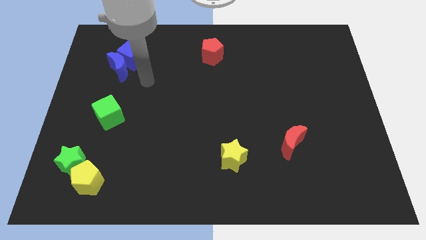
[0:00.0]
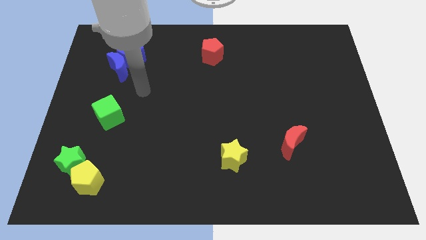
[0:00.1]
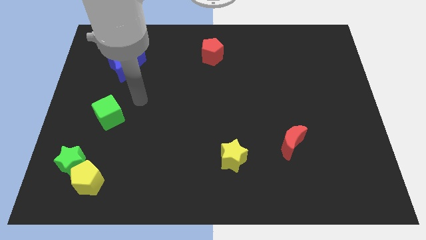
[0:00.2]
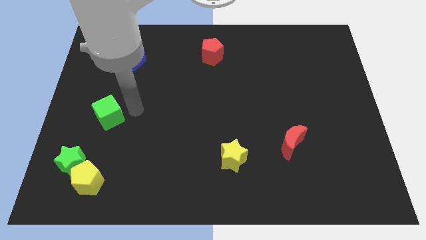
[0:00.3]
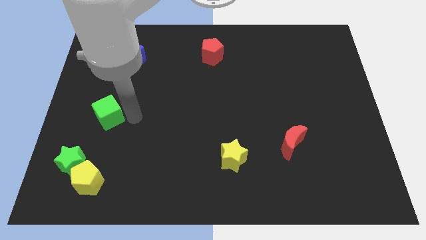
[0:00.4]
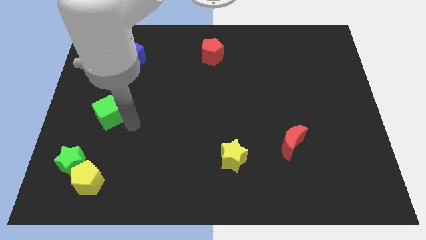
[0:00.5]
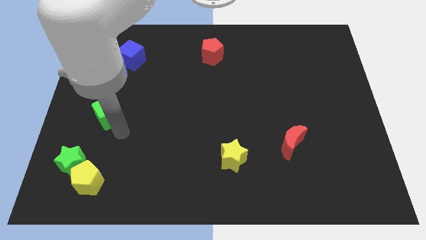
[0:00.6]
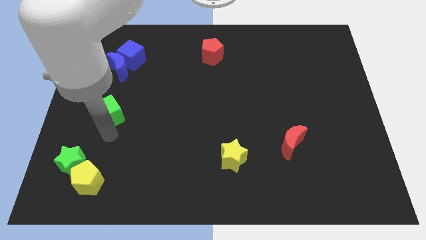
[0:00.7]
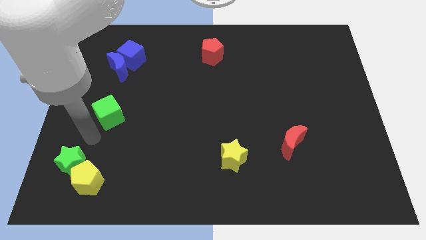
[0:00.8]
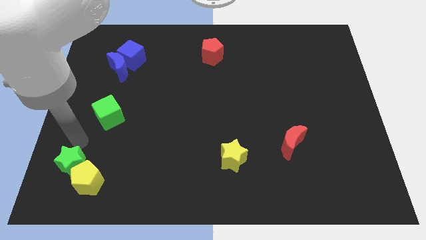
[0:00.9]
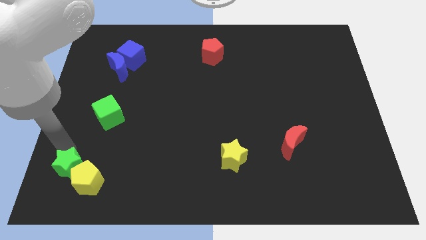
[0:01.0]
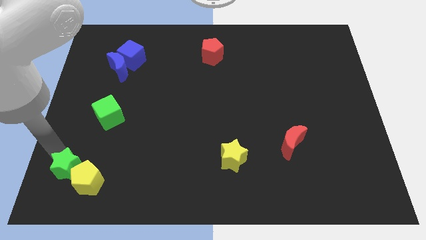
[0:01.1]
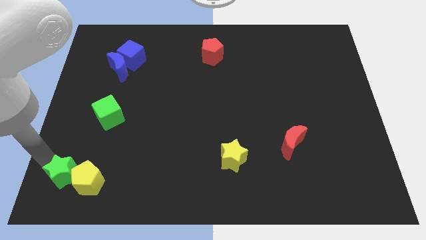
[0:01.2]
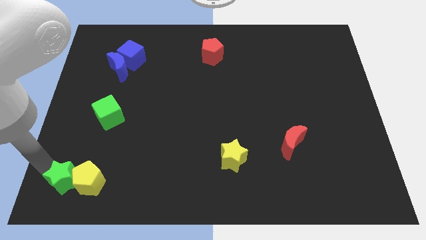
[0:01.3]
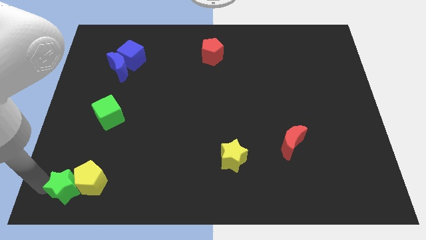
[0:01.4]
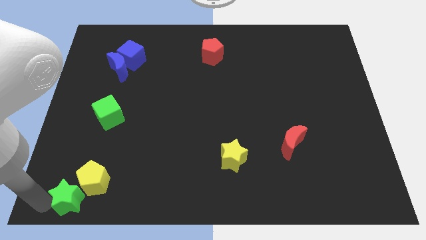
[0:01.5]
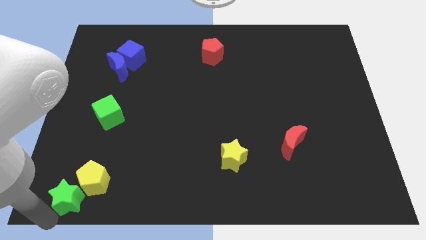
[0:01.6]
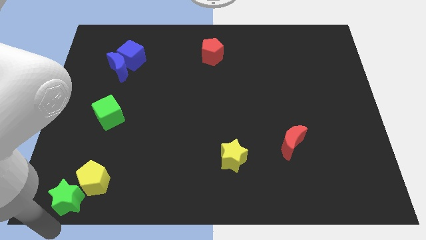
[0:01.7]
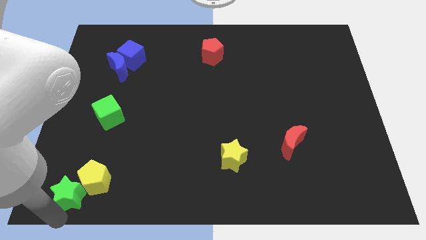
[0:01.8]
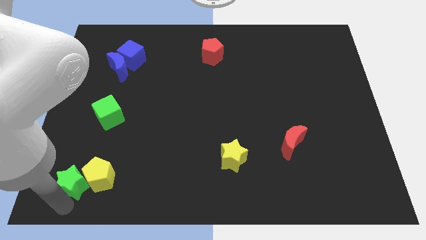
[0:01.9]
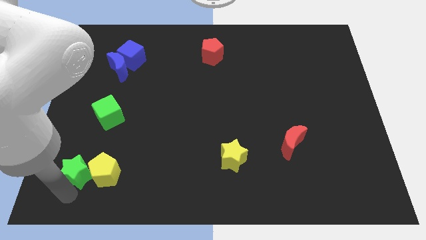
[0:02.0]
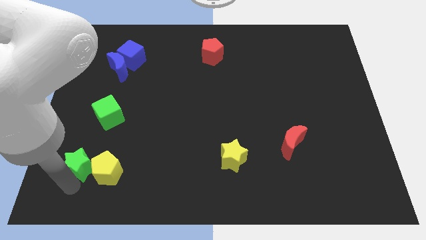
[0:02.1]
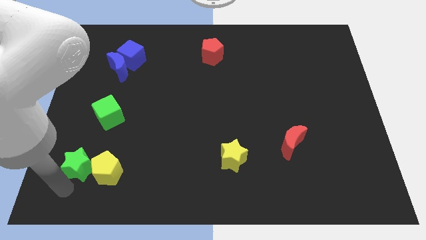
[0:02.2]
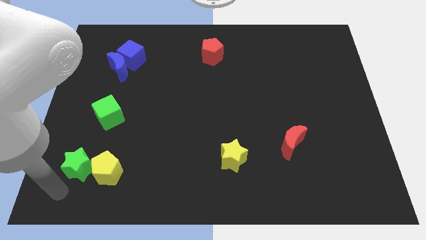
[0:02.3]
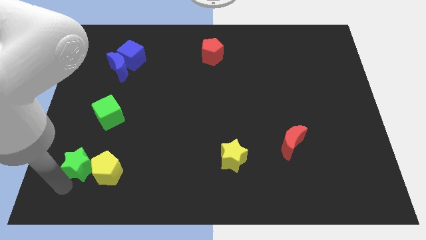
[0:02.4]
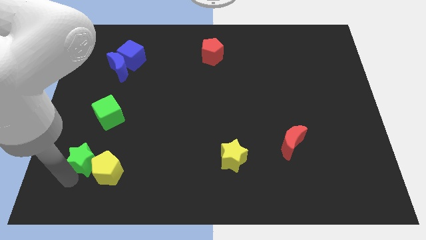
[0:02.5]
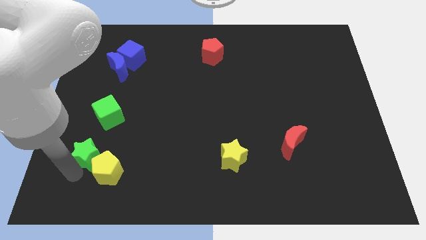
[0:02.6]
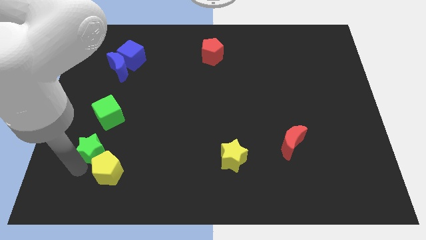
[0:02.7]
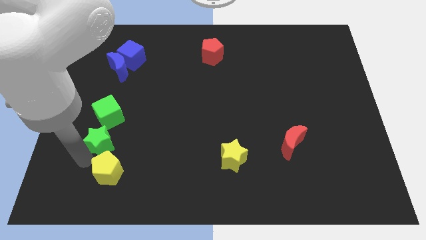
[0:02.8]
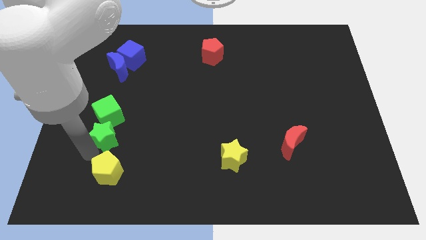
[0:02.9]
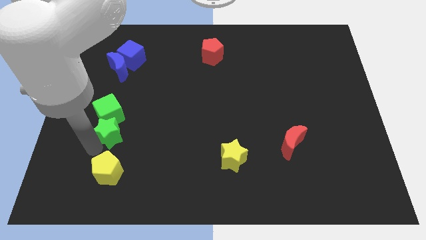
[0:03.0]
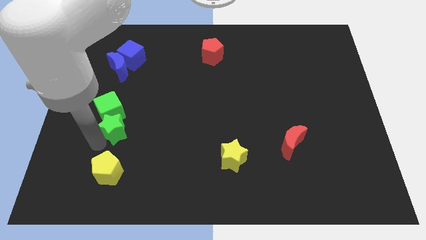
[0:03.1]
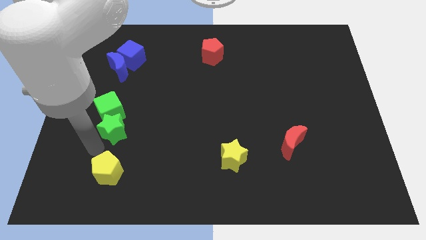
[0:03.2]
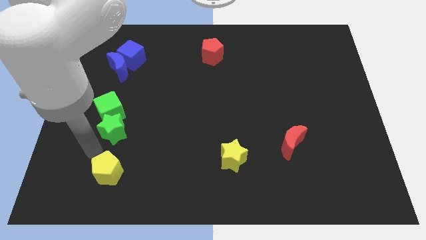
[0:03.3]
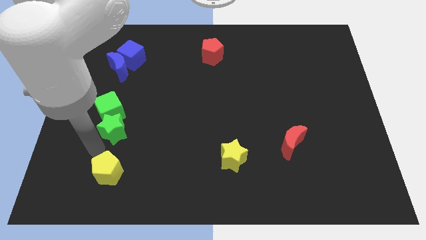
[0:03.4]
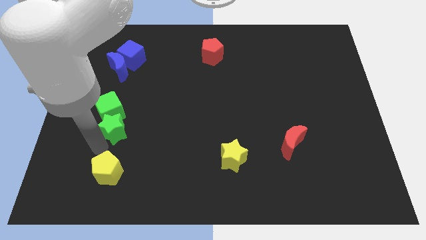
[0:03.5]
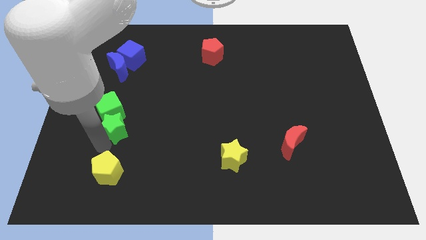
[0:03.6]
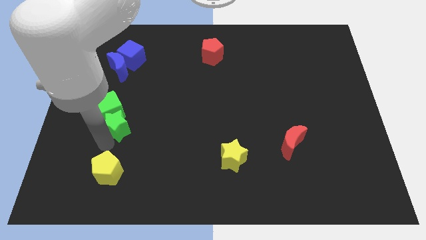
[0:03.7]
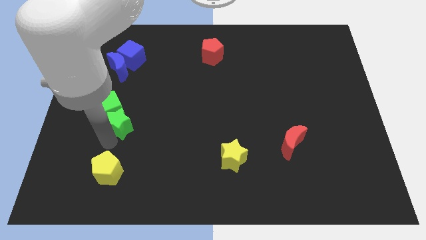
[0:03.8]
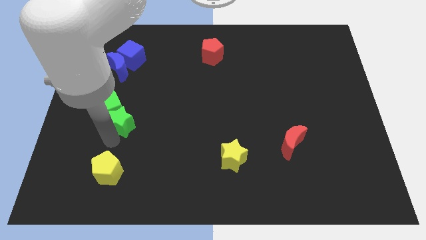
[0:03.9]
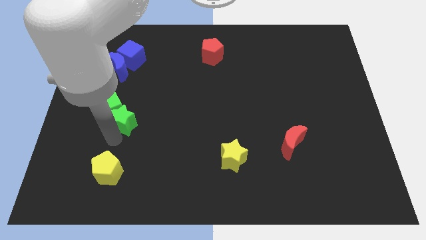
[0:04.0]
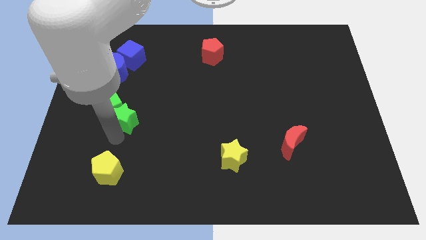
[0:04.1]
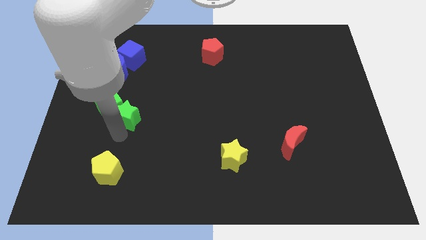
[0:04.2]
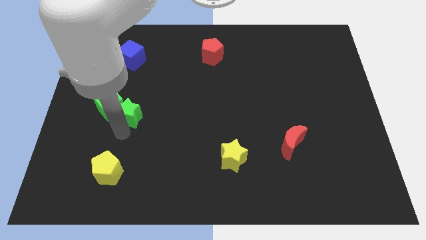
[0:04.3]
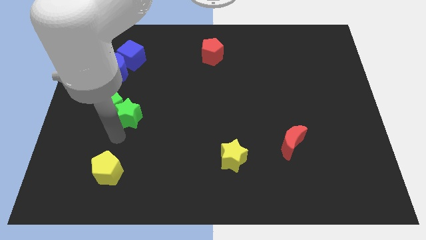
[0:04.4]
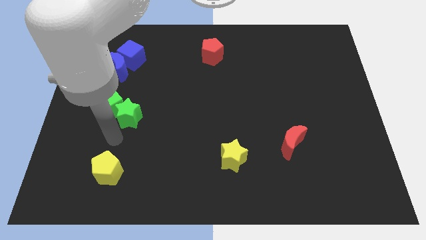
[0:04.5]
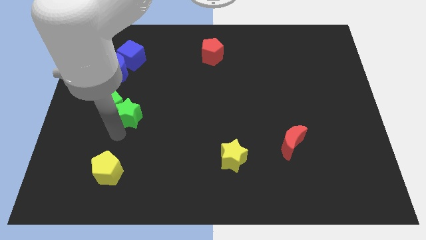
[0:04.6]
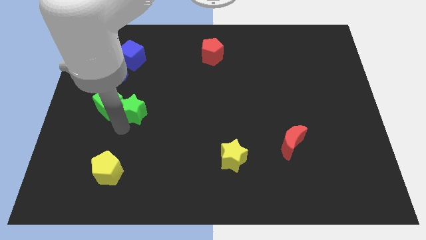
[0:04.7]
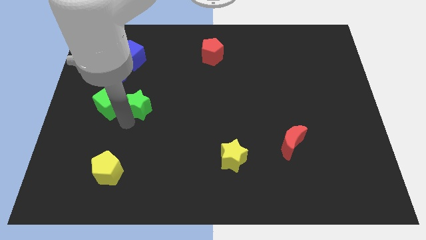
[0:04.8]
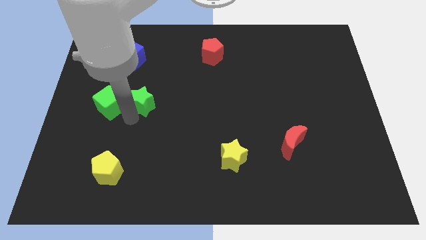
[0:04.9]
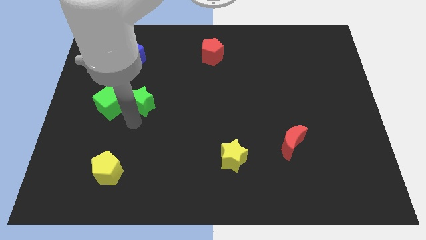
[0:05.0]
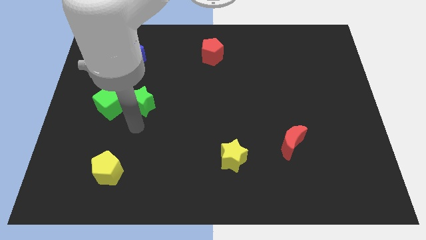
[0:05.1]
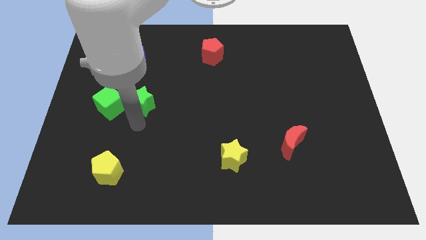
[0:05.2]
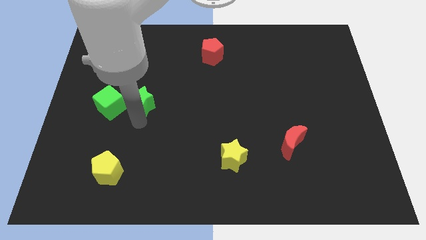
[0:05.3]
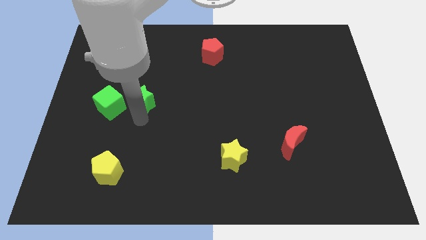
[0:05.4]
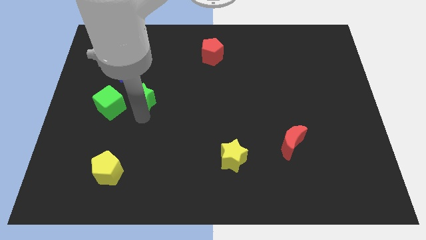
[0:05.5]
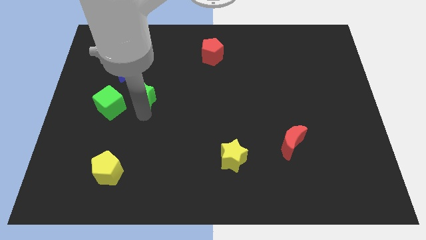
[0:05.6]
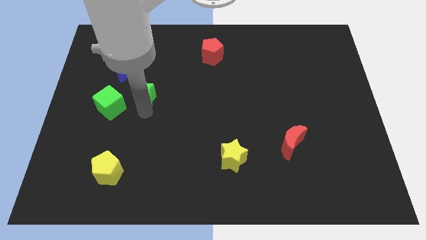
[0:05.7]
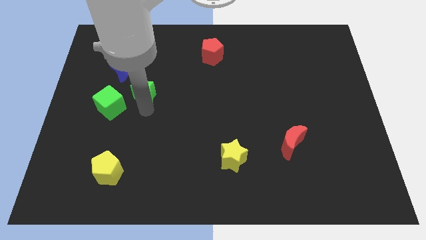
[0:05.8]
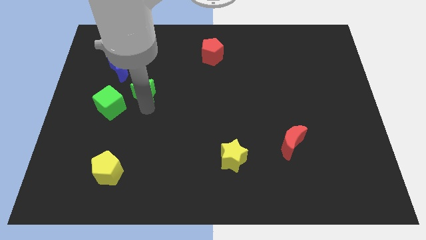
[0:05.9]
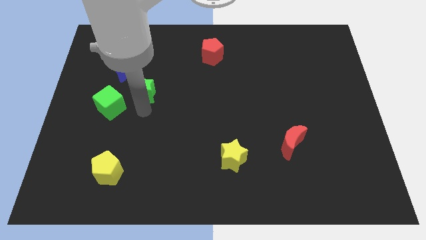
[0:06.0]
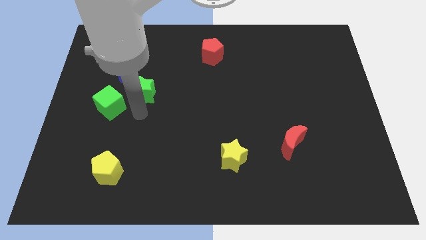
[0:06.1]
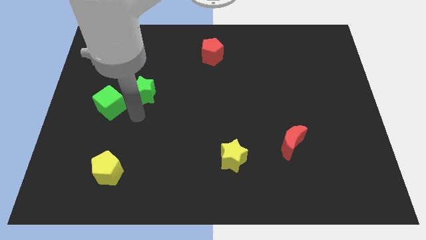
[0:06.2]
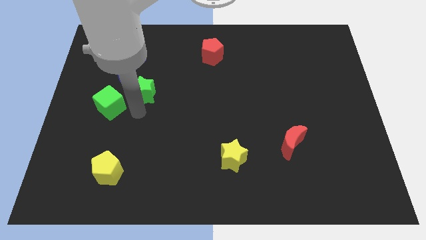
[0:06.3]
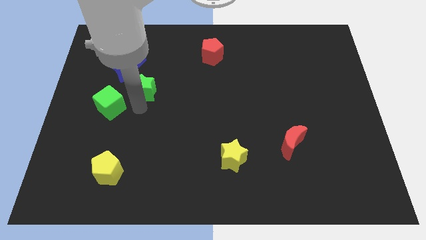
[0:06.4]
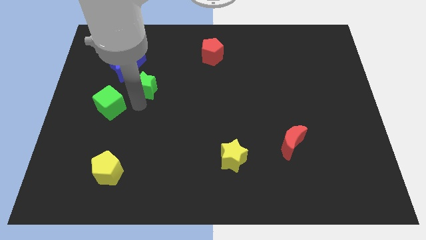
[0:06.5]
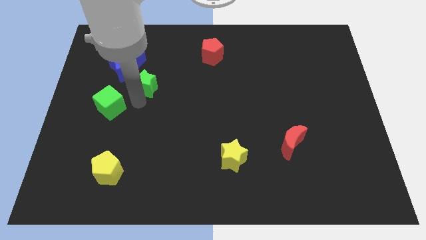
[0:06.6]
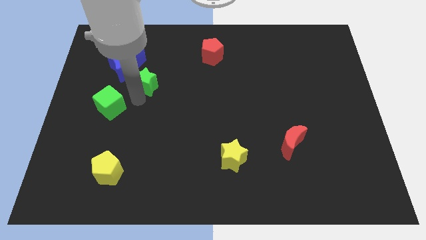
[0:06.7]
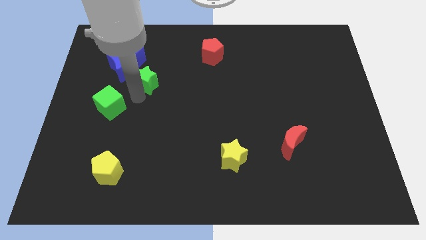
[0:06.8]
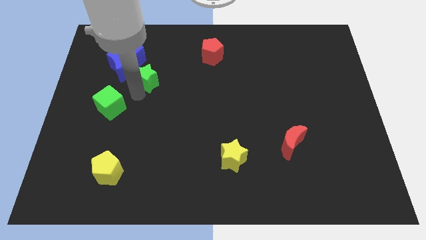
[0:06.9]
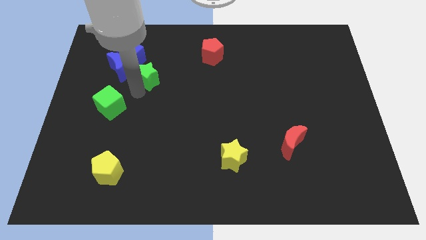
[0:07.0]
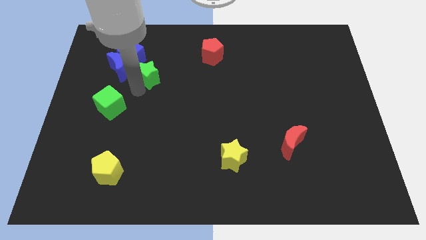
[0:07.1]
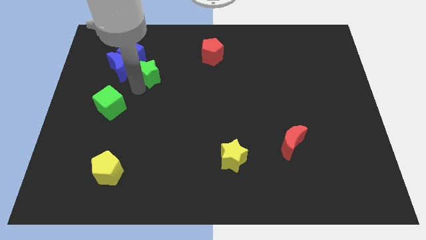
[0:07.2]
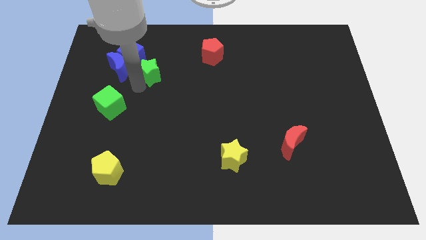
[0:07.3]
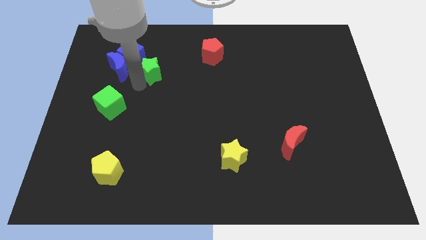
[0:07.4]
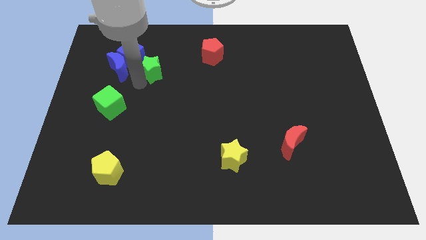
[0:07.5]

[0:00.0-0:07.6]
push the green star to the right side of the blue cube
